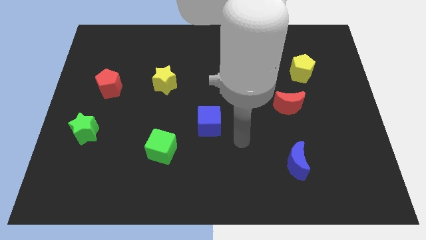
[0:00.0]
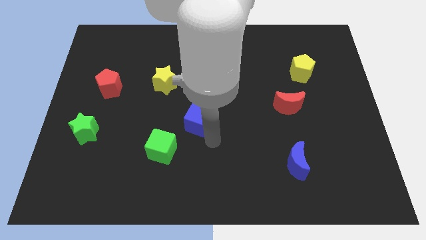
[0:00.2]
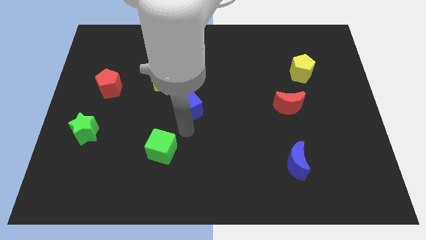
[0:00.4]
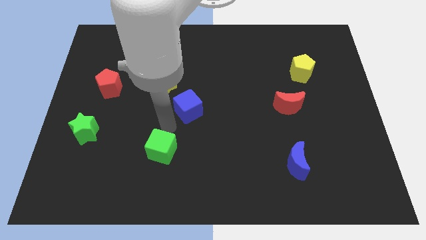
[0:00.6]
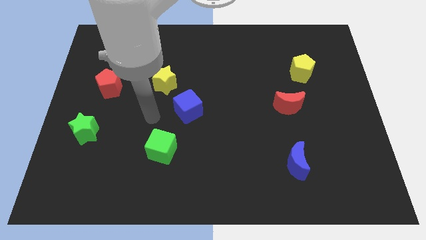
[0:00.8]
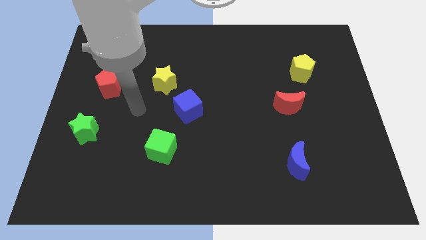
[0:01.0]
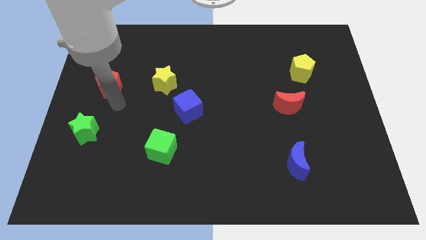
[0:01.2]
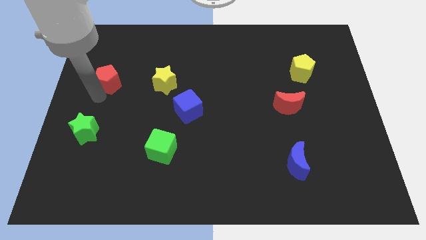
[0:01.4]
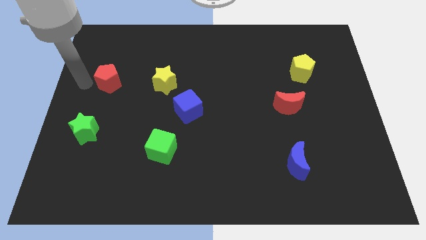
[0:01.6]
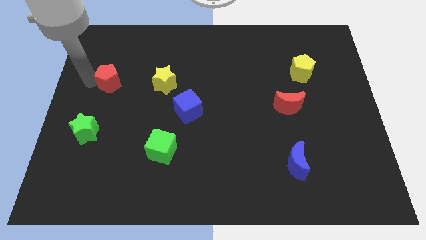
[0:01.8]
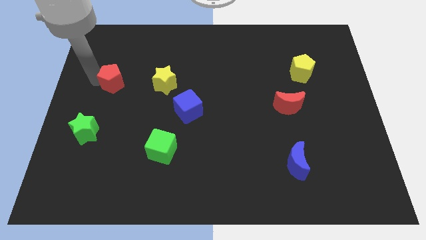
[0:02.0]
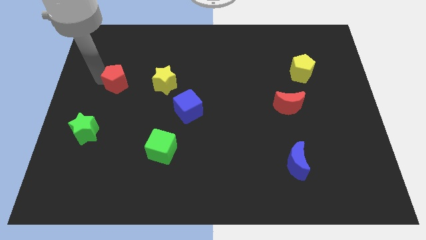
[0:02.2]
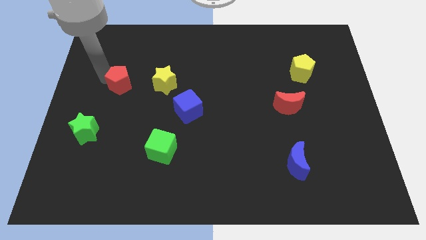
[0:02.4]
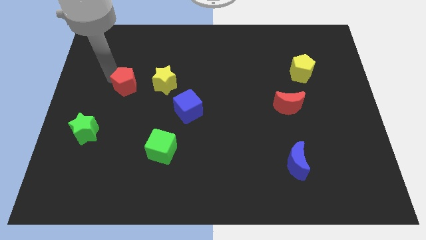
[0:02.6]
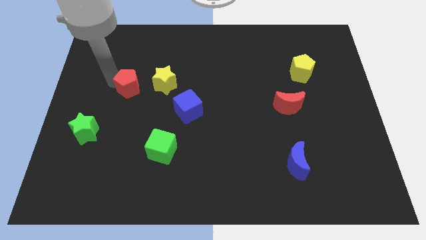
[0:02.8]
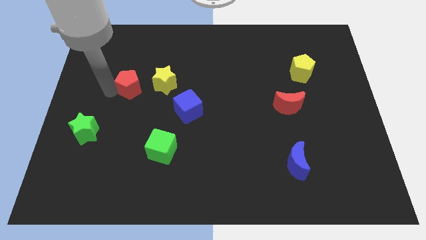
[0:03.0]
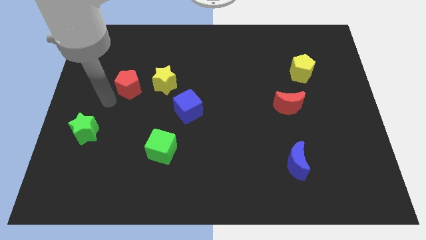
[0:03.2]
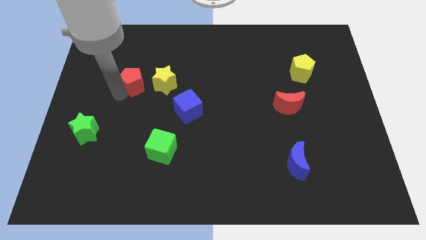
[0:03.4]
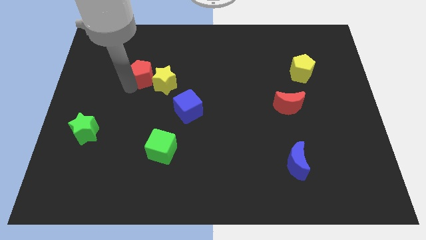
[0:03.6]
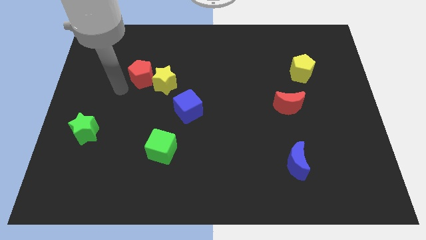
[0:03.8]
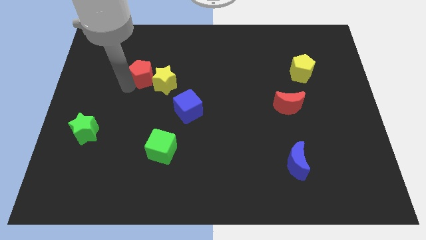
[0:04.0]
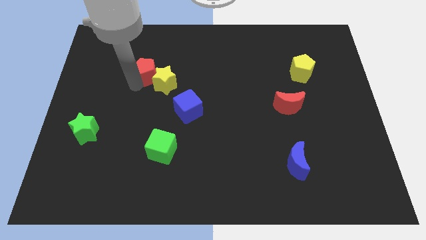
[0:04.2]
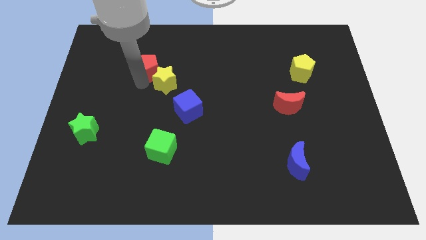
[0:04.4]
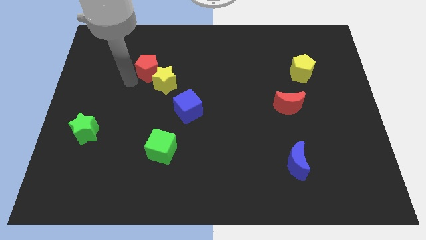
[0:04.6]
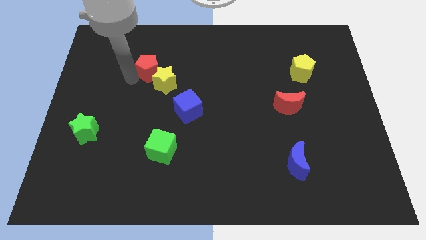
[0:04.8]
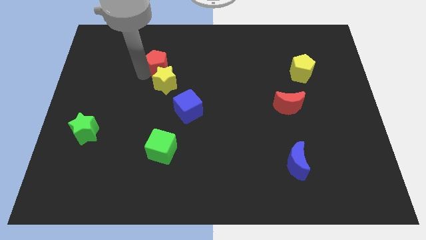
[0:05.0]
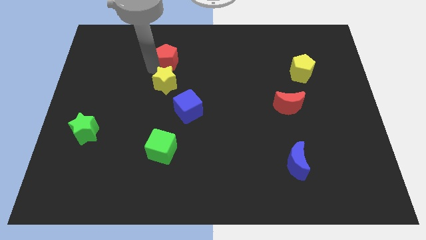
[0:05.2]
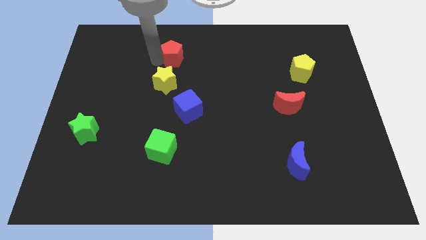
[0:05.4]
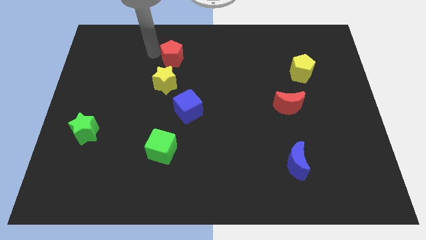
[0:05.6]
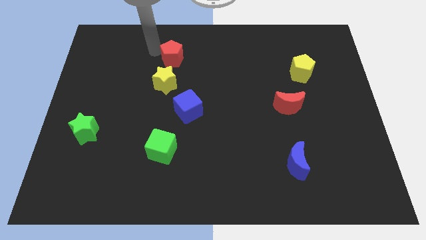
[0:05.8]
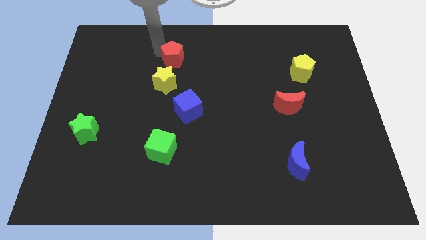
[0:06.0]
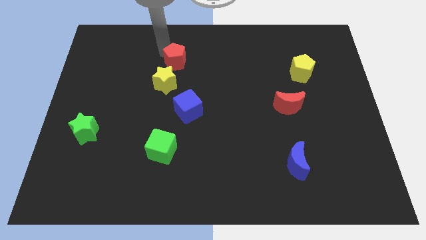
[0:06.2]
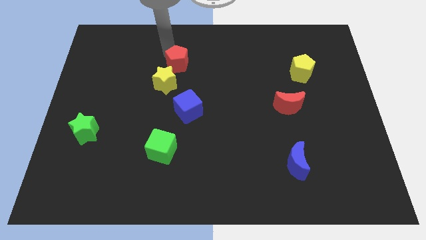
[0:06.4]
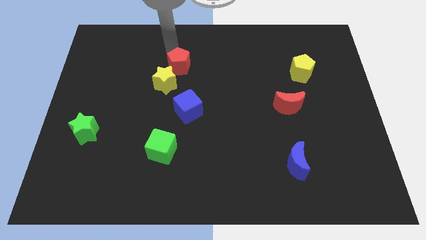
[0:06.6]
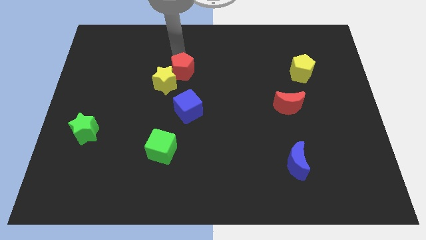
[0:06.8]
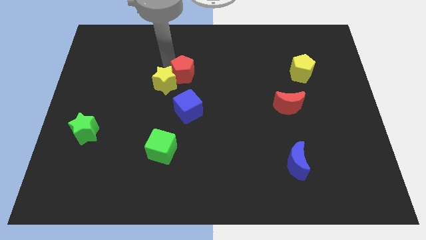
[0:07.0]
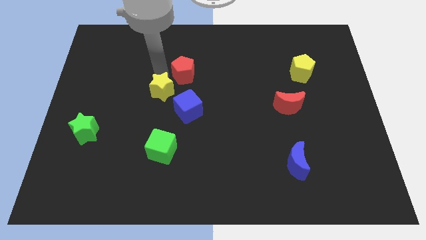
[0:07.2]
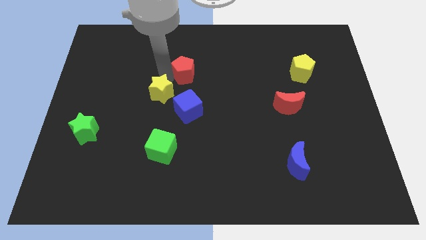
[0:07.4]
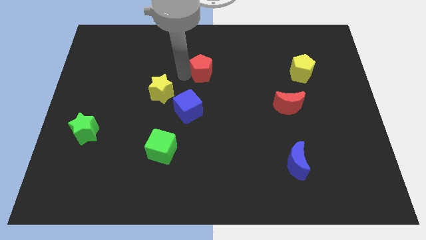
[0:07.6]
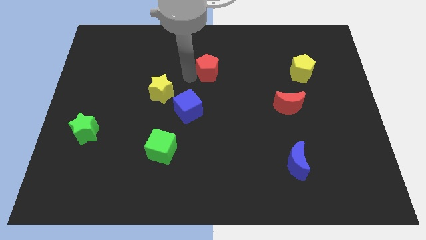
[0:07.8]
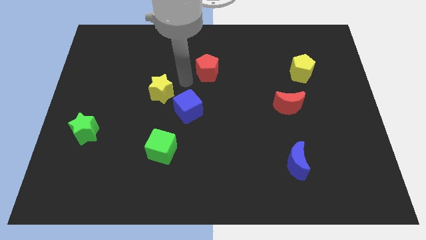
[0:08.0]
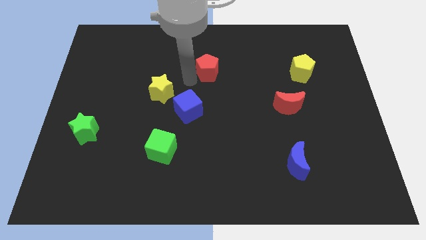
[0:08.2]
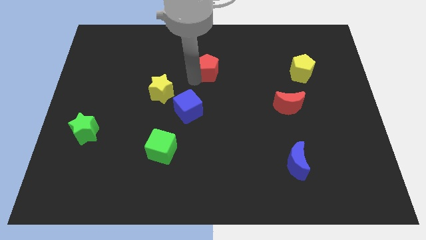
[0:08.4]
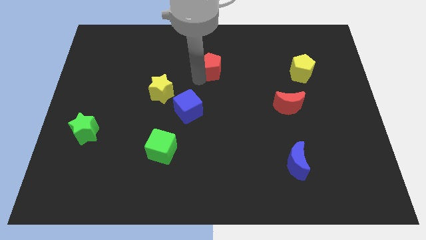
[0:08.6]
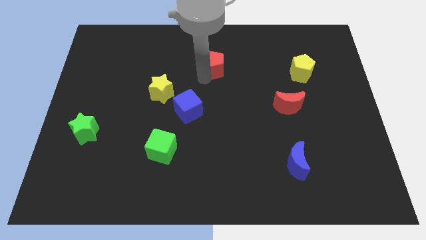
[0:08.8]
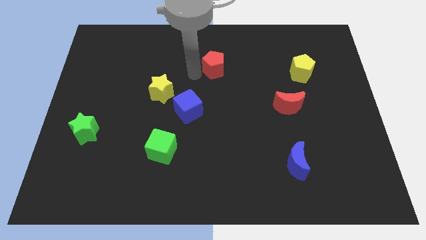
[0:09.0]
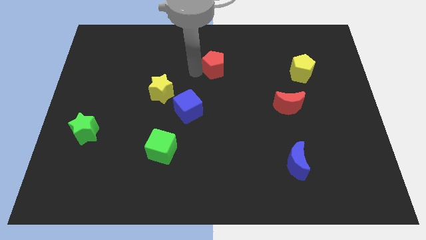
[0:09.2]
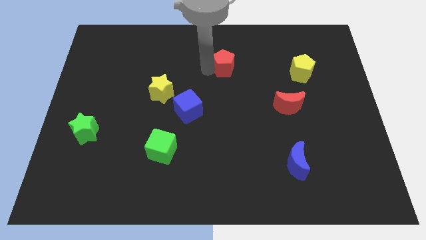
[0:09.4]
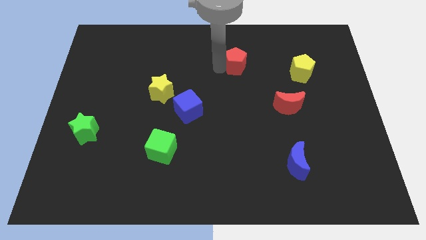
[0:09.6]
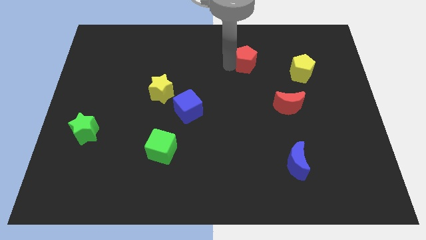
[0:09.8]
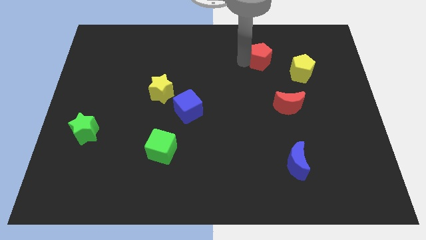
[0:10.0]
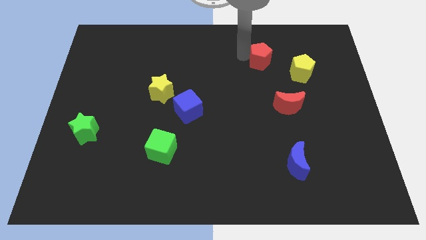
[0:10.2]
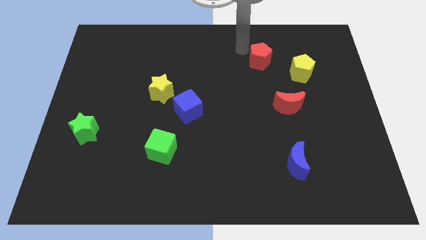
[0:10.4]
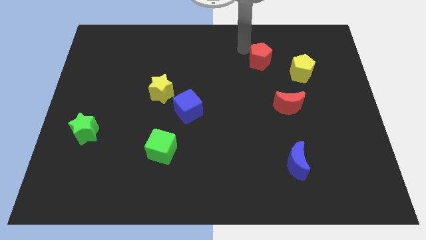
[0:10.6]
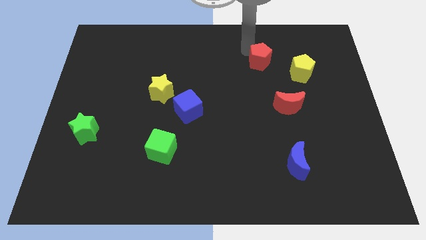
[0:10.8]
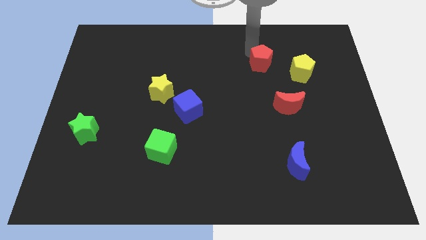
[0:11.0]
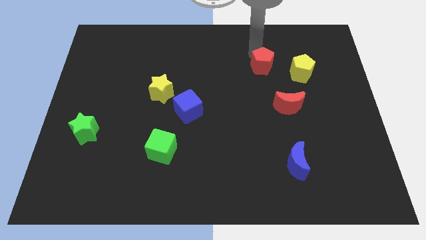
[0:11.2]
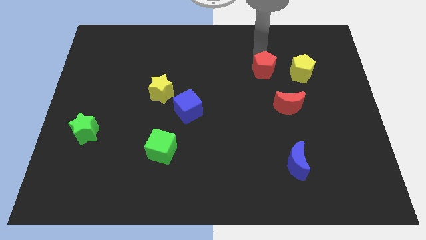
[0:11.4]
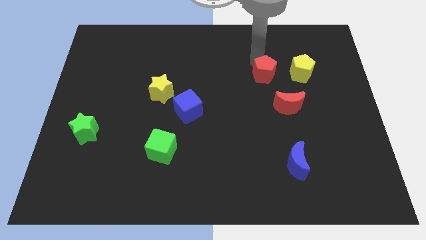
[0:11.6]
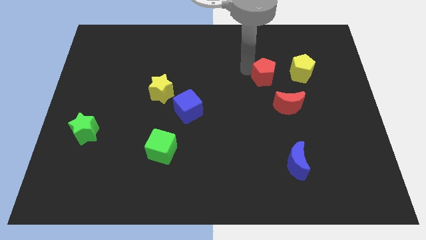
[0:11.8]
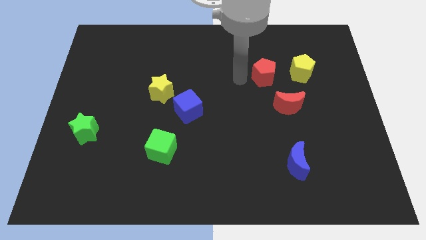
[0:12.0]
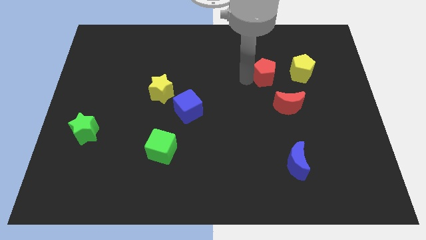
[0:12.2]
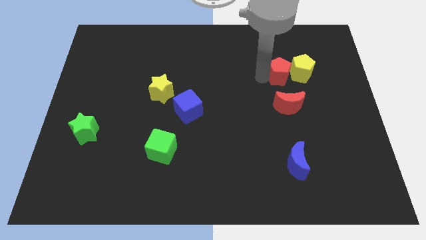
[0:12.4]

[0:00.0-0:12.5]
put the red pentagon to the yellow pentagon

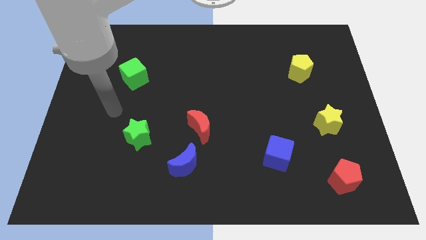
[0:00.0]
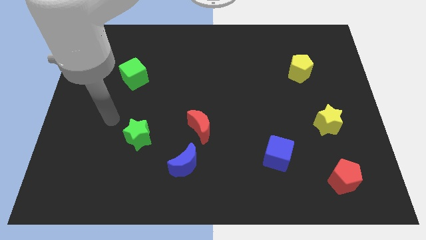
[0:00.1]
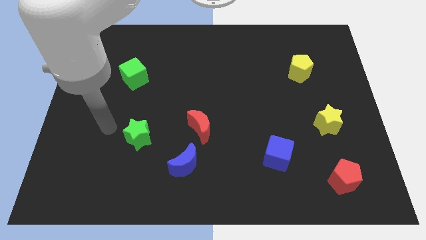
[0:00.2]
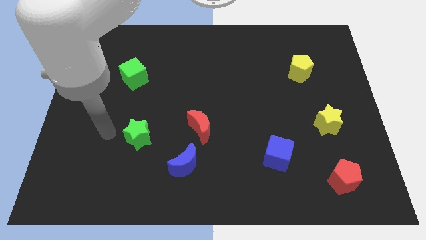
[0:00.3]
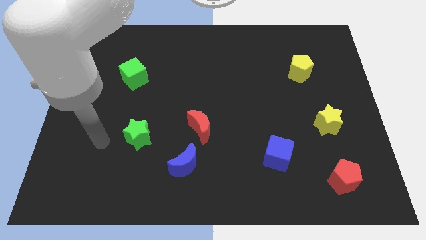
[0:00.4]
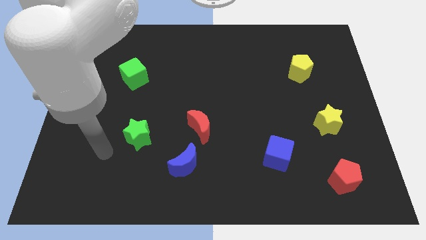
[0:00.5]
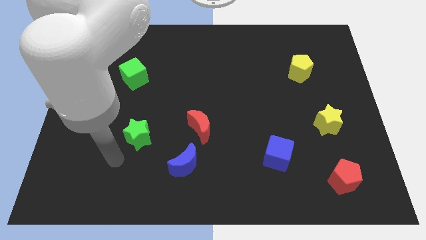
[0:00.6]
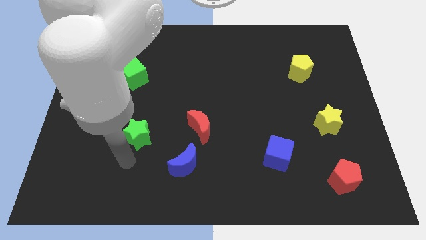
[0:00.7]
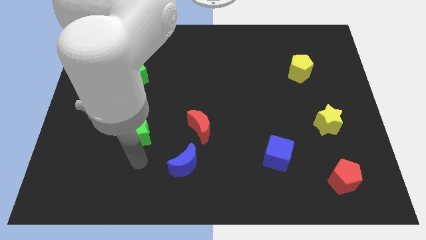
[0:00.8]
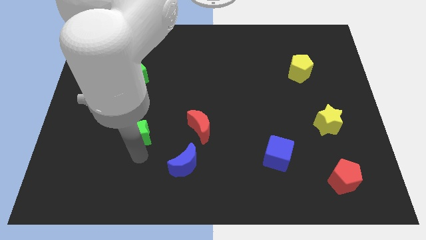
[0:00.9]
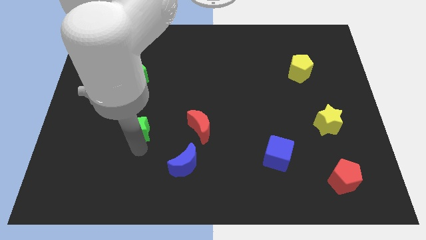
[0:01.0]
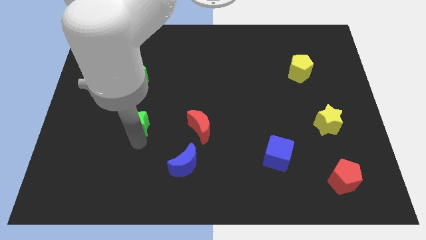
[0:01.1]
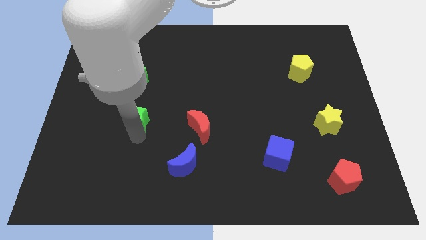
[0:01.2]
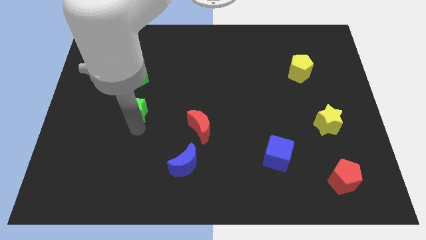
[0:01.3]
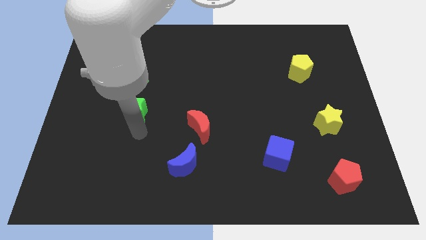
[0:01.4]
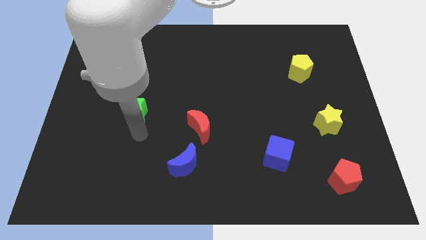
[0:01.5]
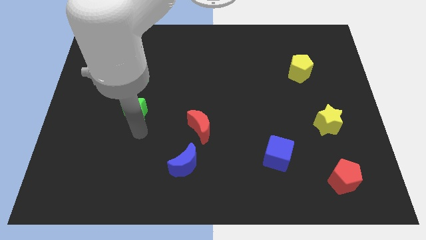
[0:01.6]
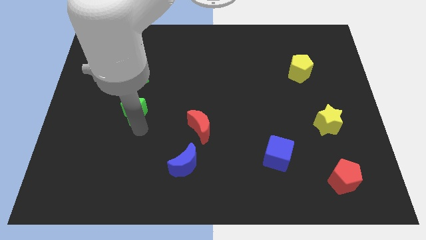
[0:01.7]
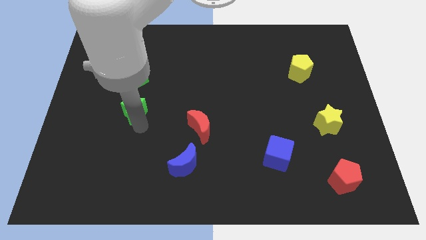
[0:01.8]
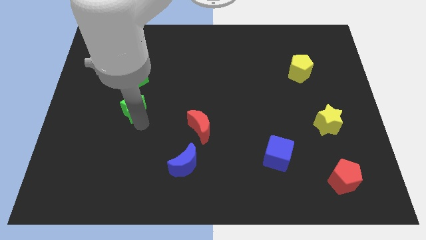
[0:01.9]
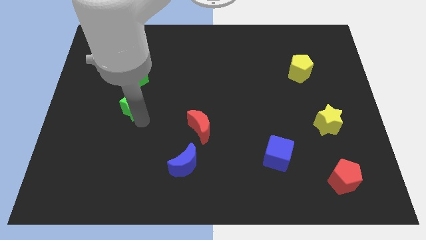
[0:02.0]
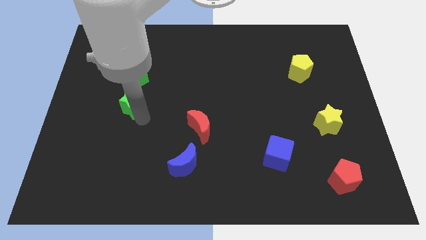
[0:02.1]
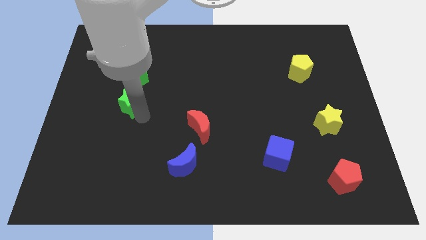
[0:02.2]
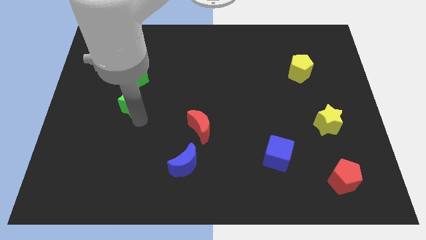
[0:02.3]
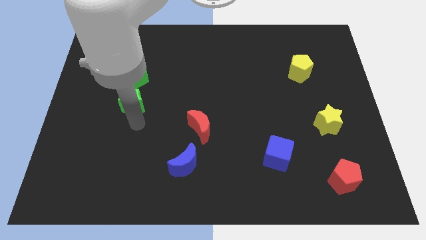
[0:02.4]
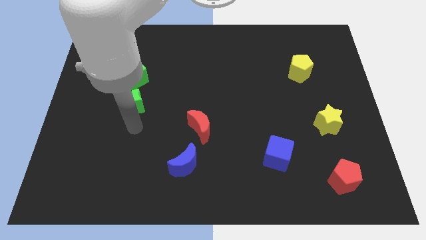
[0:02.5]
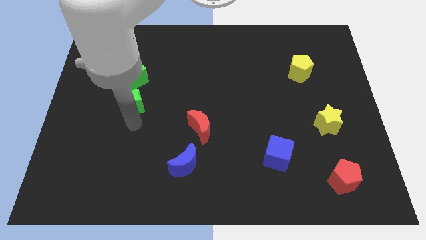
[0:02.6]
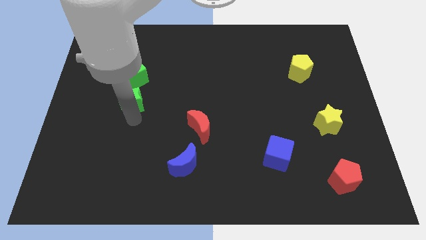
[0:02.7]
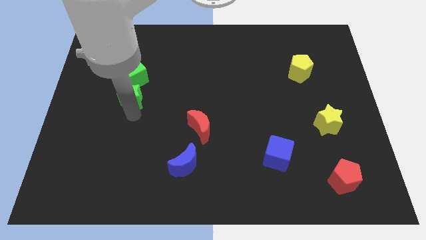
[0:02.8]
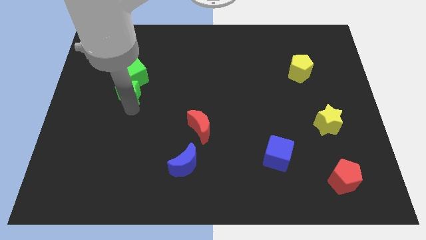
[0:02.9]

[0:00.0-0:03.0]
put the green star to the green cube
